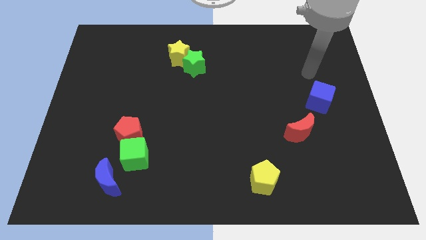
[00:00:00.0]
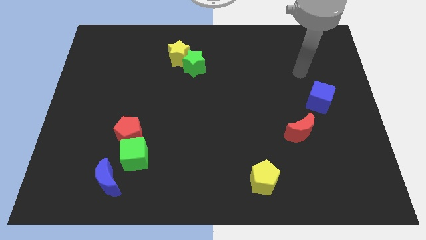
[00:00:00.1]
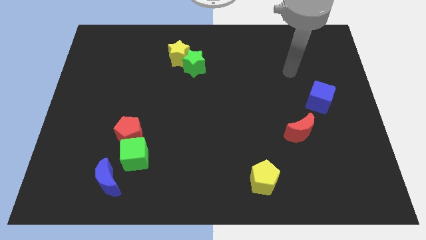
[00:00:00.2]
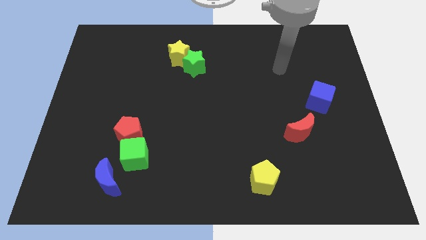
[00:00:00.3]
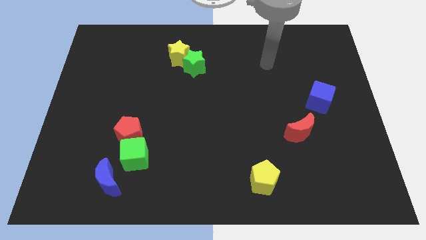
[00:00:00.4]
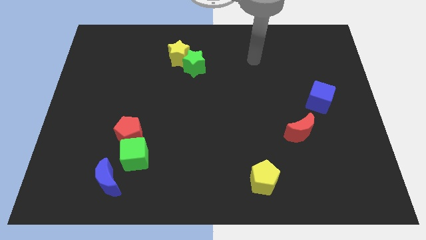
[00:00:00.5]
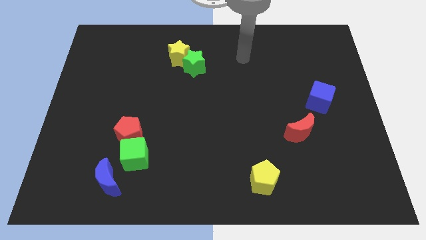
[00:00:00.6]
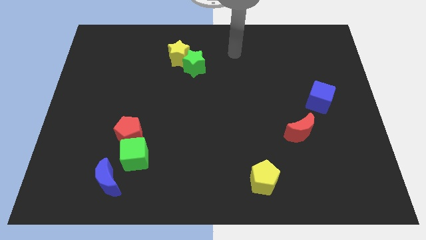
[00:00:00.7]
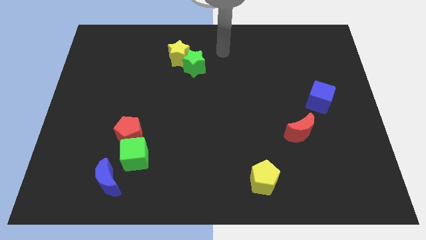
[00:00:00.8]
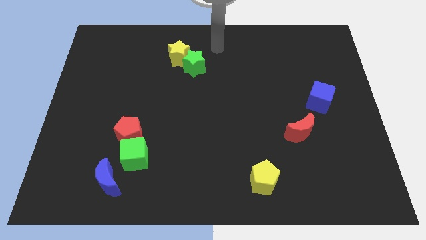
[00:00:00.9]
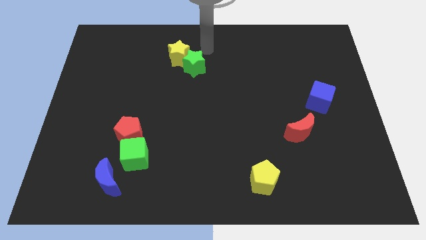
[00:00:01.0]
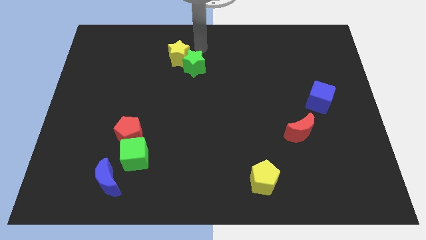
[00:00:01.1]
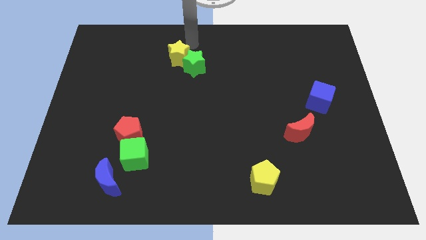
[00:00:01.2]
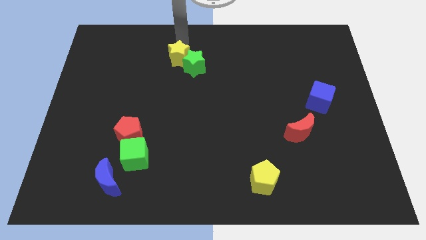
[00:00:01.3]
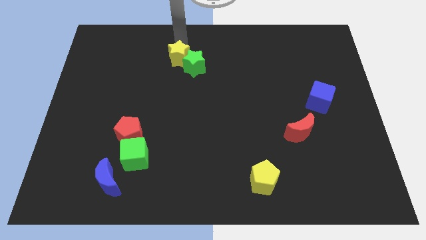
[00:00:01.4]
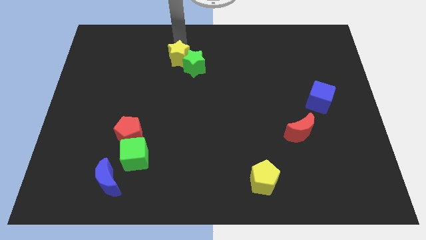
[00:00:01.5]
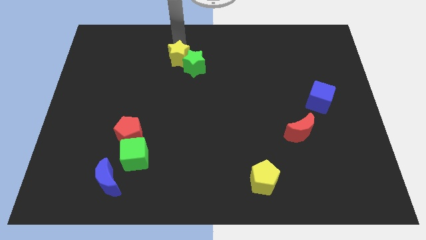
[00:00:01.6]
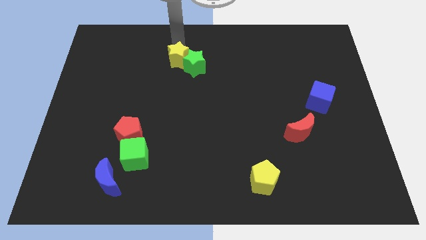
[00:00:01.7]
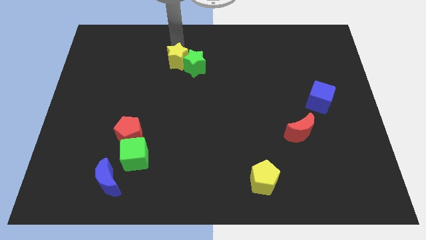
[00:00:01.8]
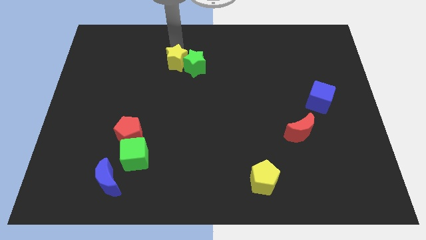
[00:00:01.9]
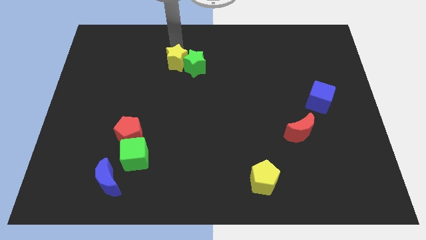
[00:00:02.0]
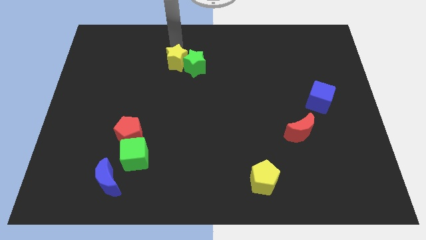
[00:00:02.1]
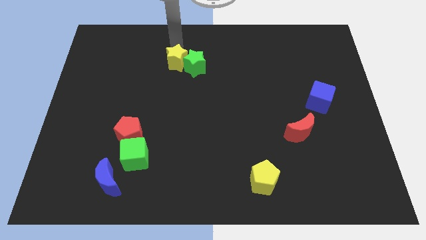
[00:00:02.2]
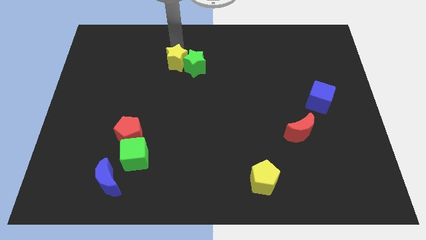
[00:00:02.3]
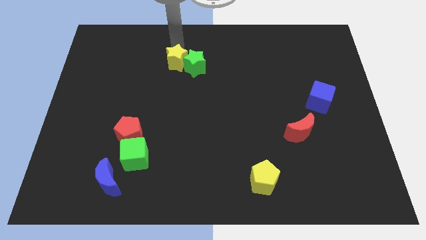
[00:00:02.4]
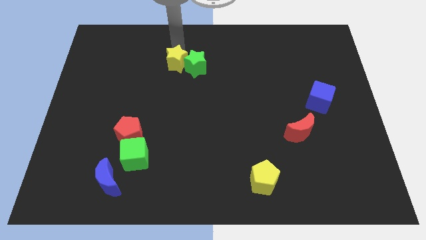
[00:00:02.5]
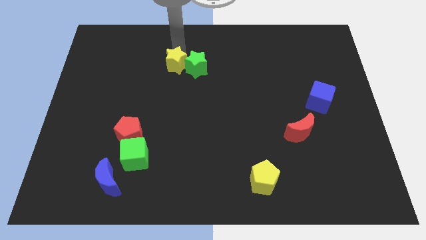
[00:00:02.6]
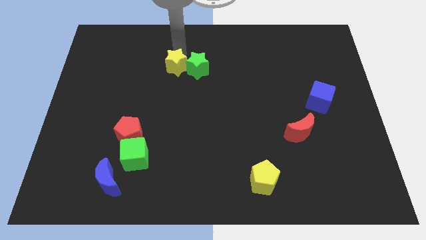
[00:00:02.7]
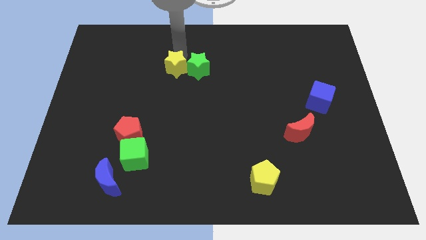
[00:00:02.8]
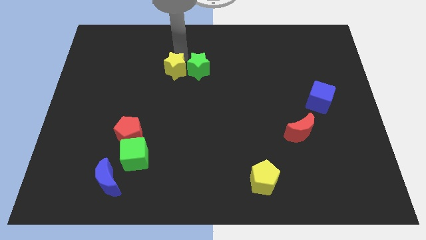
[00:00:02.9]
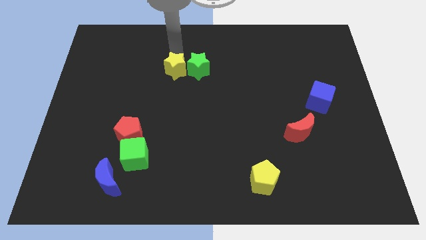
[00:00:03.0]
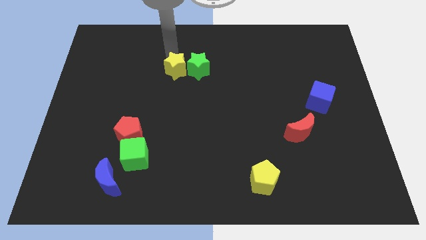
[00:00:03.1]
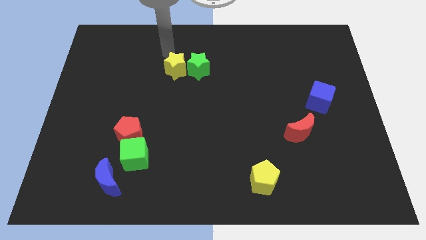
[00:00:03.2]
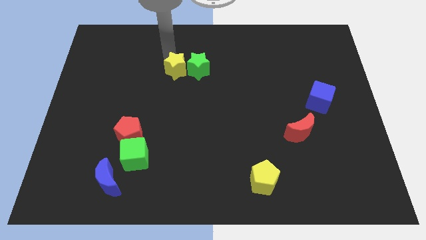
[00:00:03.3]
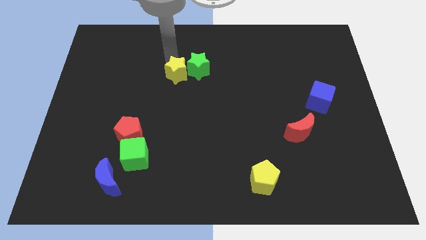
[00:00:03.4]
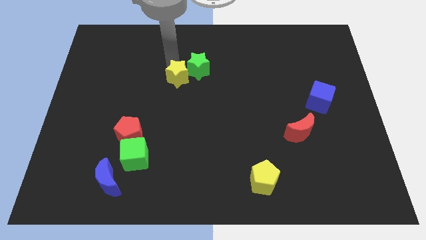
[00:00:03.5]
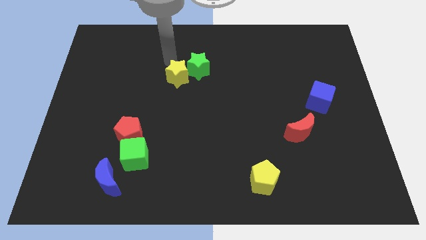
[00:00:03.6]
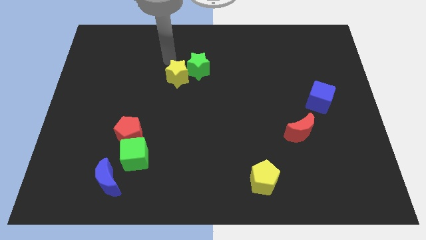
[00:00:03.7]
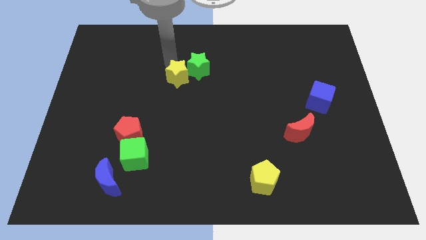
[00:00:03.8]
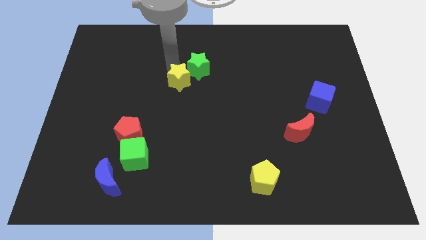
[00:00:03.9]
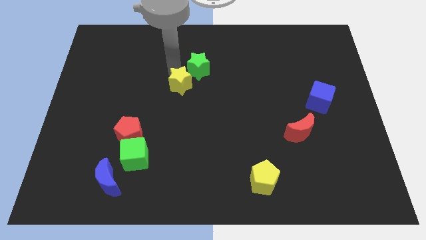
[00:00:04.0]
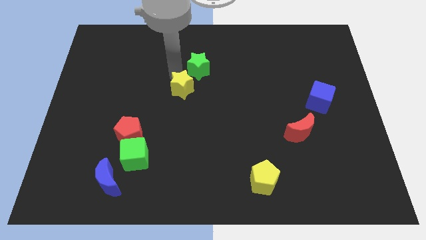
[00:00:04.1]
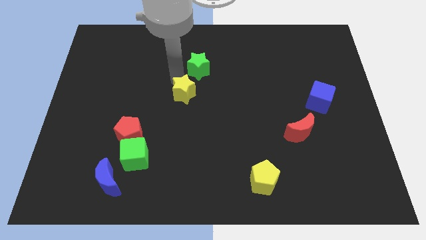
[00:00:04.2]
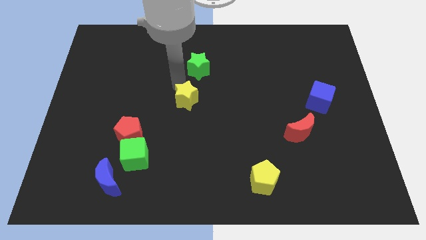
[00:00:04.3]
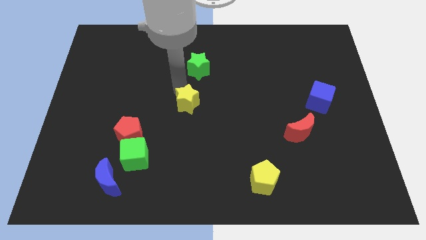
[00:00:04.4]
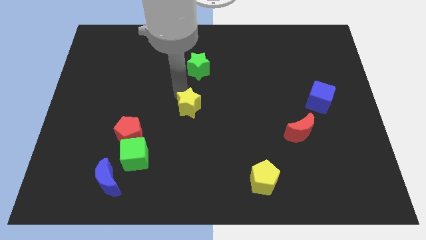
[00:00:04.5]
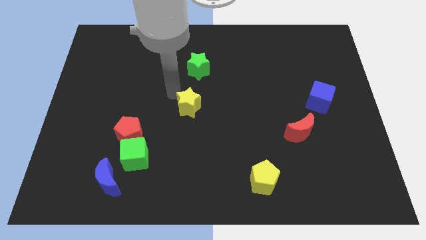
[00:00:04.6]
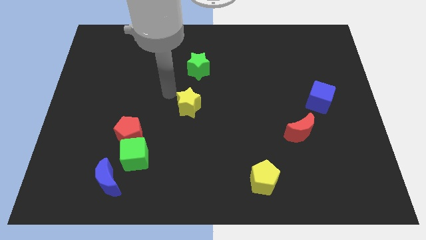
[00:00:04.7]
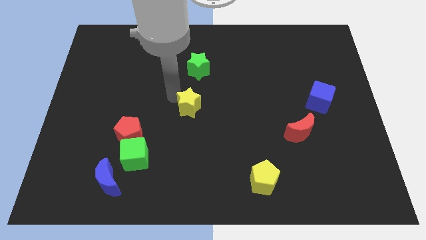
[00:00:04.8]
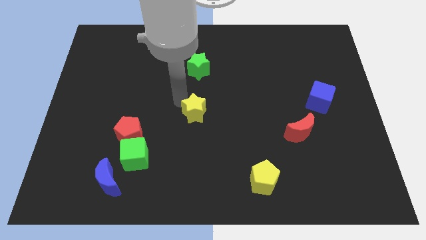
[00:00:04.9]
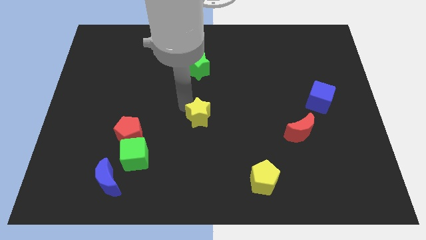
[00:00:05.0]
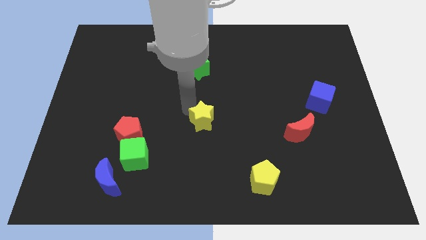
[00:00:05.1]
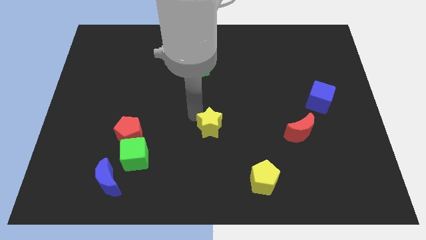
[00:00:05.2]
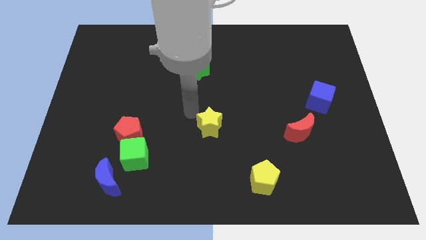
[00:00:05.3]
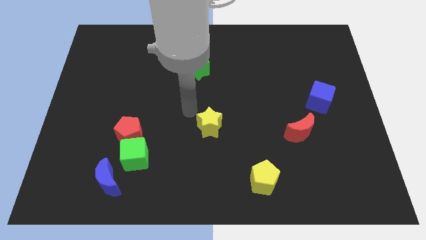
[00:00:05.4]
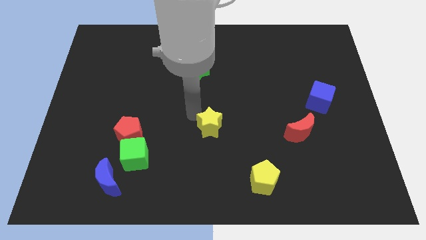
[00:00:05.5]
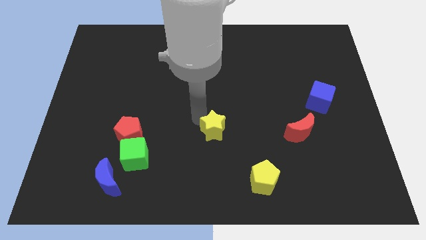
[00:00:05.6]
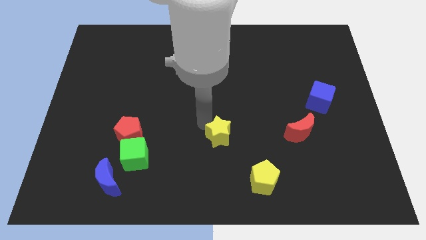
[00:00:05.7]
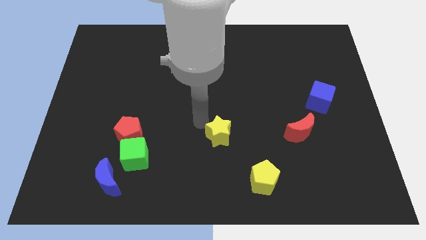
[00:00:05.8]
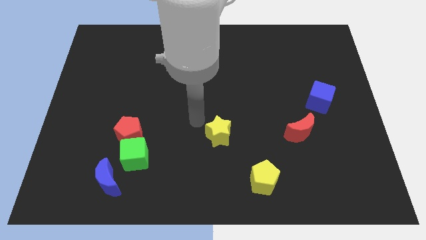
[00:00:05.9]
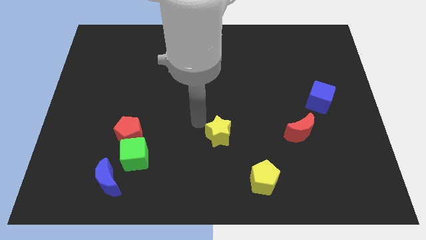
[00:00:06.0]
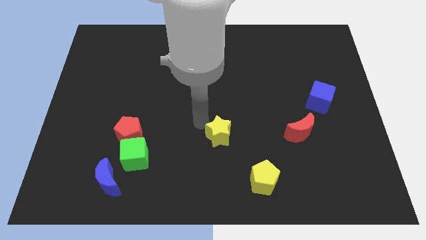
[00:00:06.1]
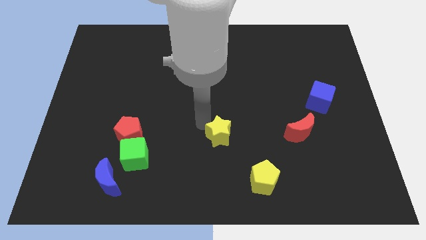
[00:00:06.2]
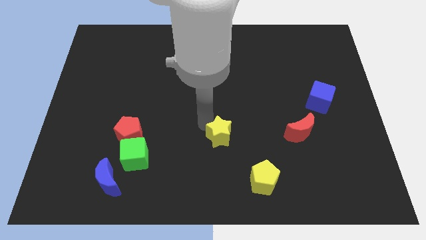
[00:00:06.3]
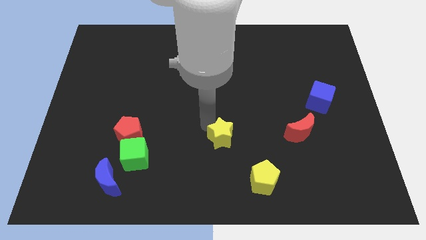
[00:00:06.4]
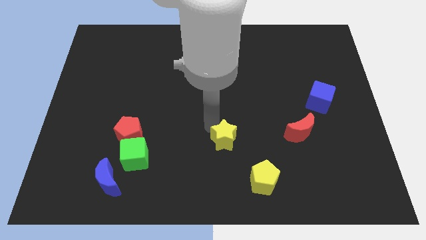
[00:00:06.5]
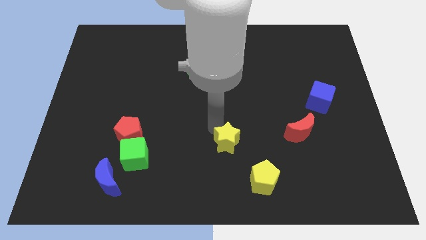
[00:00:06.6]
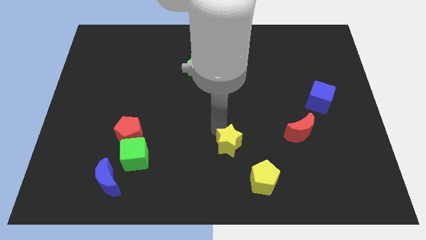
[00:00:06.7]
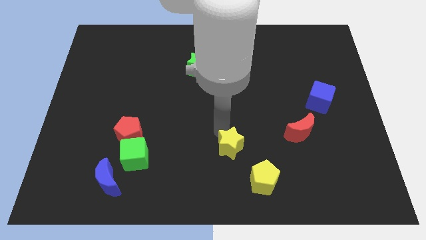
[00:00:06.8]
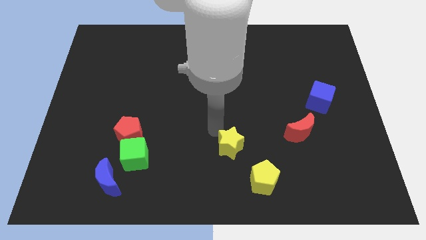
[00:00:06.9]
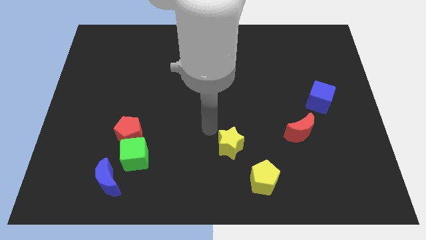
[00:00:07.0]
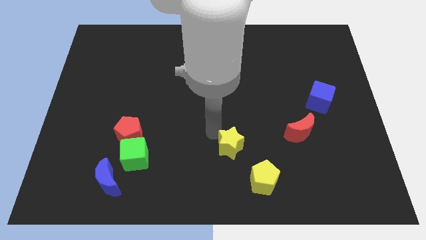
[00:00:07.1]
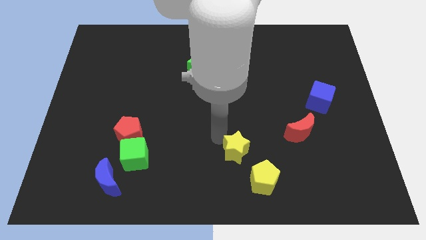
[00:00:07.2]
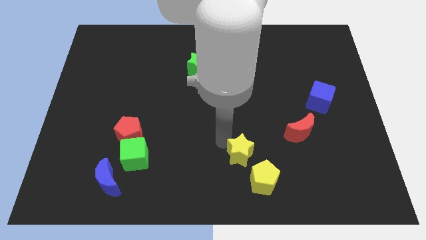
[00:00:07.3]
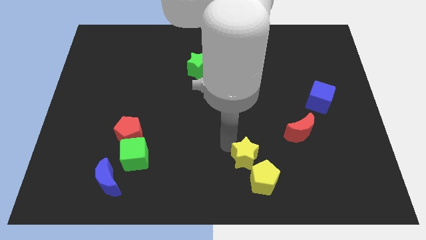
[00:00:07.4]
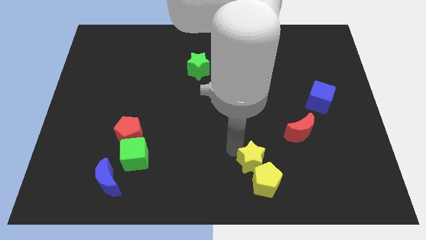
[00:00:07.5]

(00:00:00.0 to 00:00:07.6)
move the yellow star close to the yellow pentagon

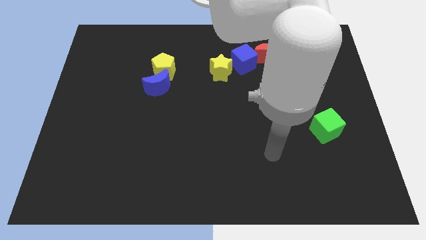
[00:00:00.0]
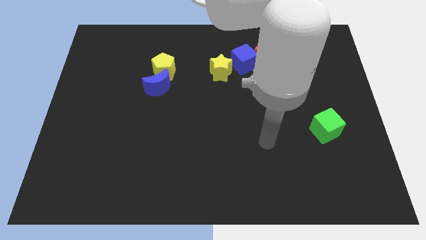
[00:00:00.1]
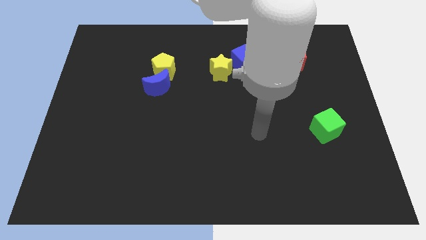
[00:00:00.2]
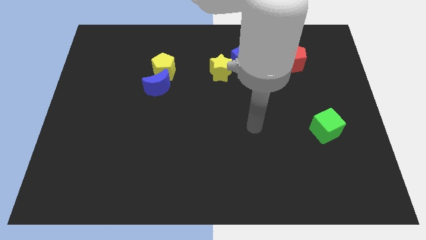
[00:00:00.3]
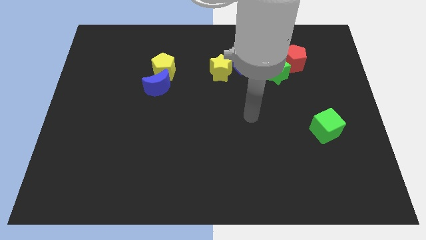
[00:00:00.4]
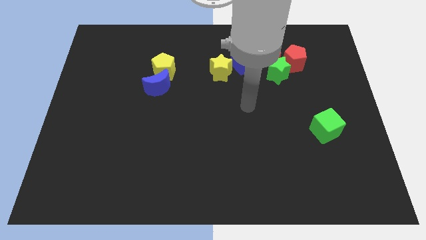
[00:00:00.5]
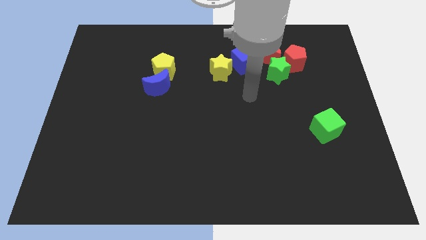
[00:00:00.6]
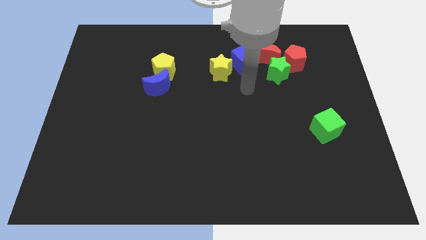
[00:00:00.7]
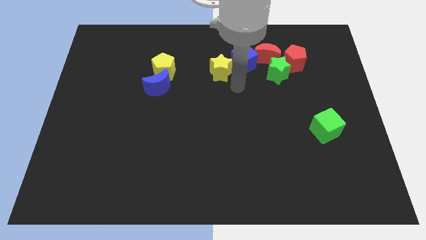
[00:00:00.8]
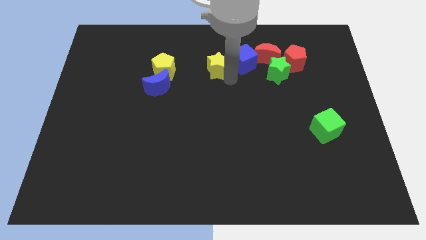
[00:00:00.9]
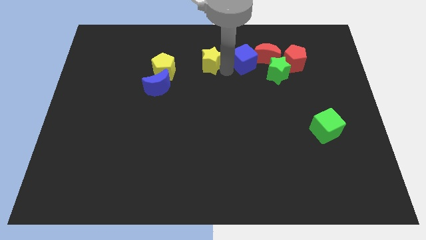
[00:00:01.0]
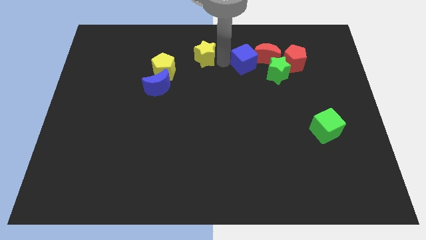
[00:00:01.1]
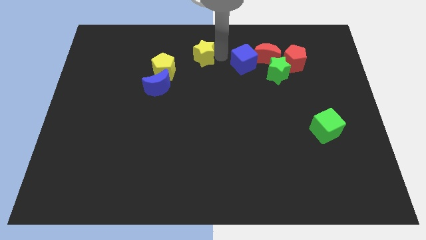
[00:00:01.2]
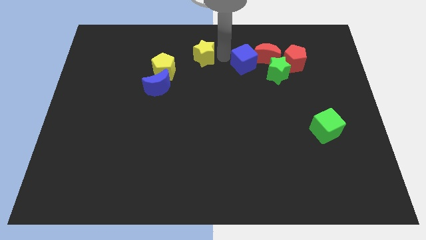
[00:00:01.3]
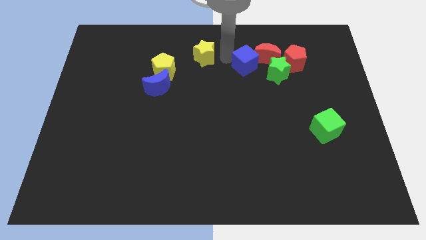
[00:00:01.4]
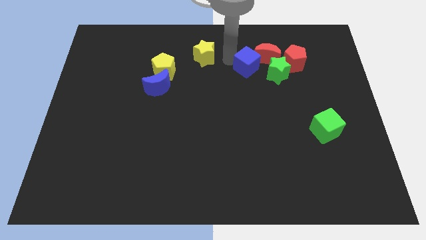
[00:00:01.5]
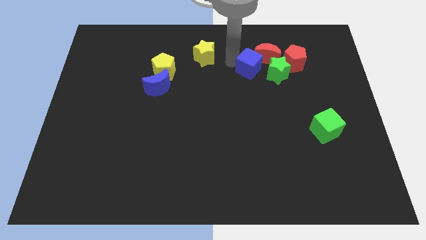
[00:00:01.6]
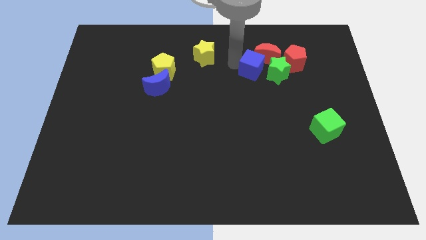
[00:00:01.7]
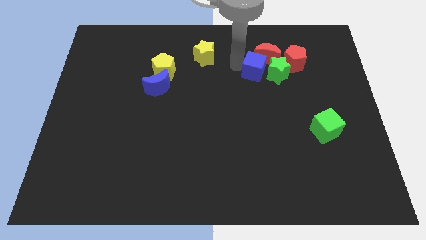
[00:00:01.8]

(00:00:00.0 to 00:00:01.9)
put the blue cube to the green star
